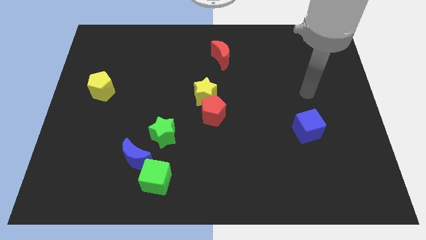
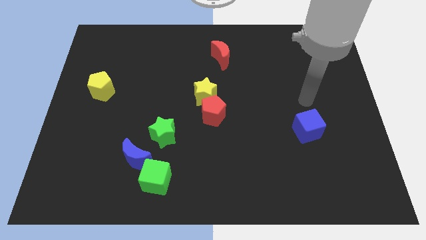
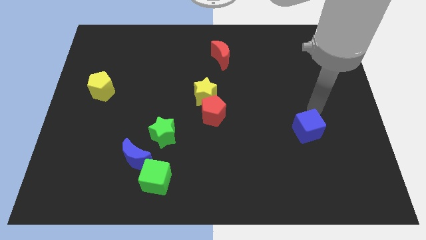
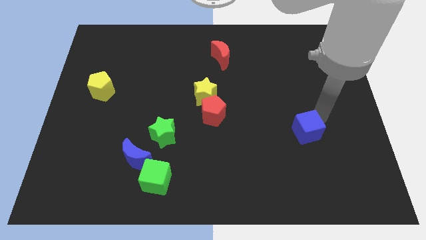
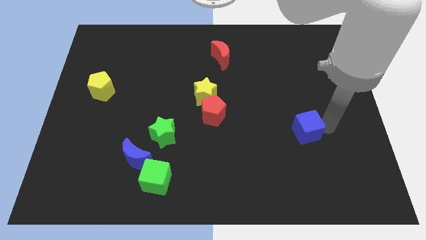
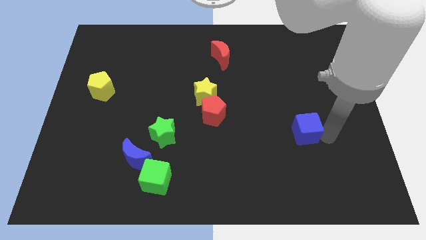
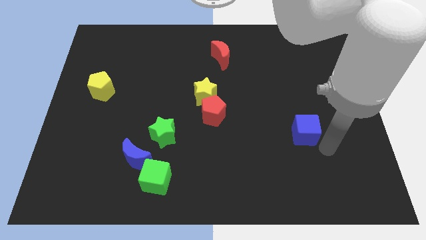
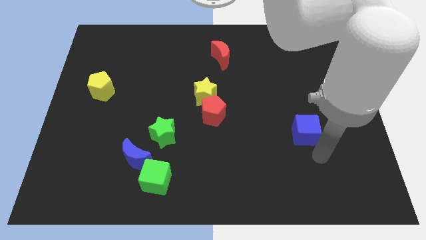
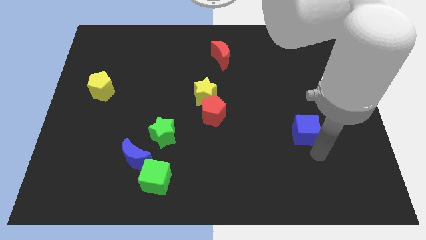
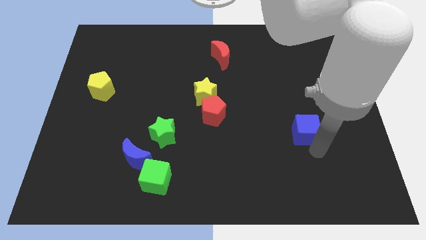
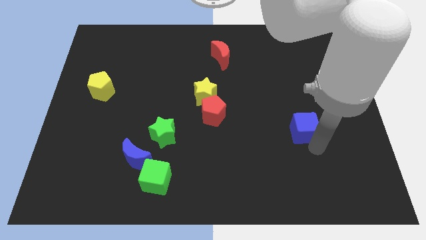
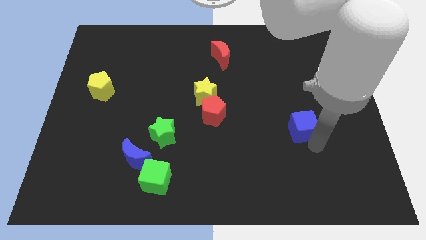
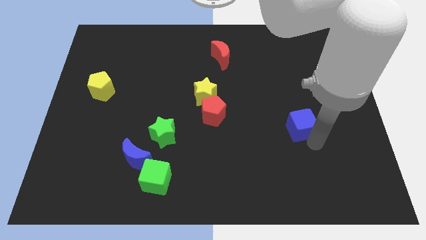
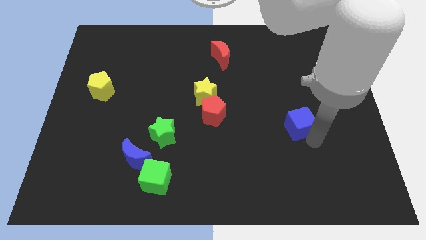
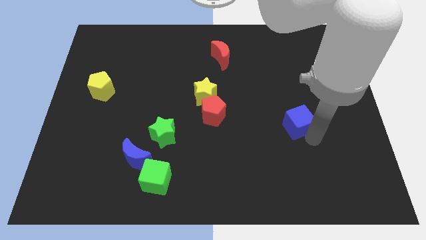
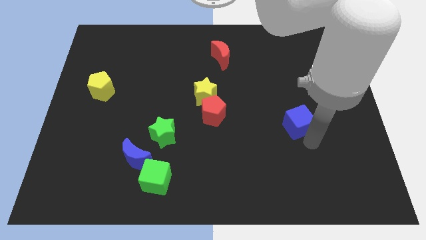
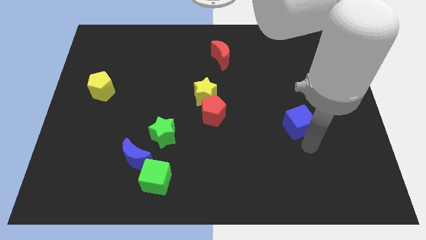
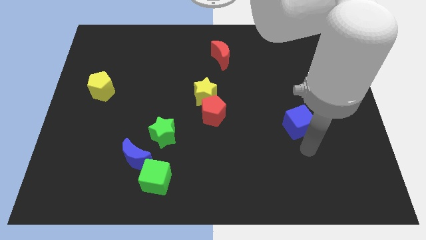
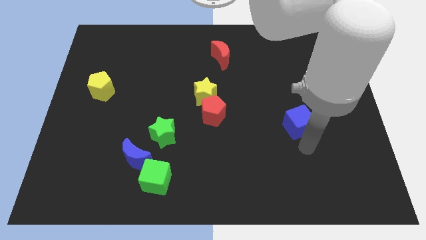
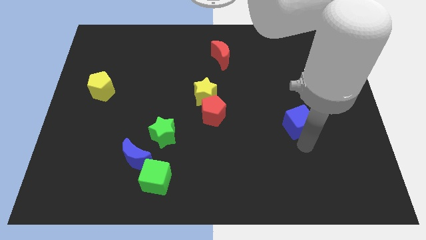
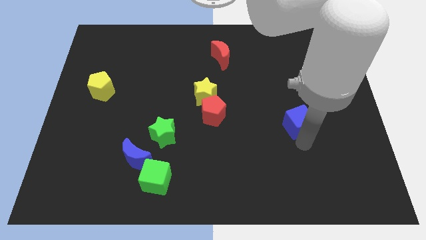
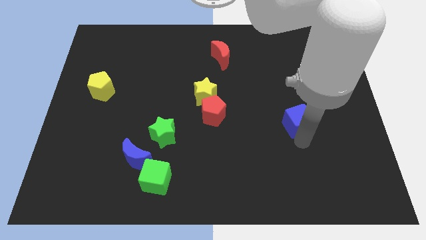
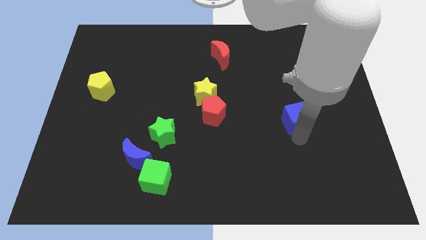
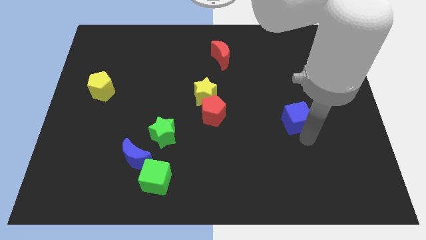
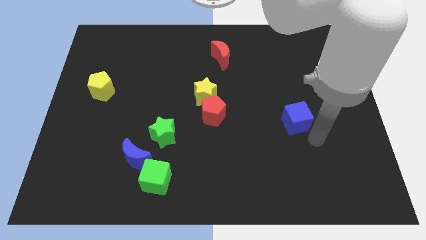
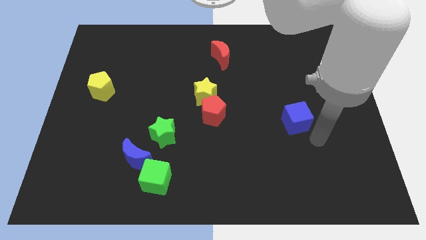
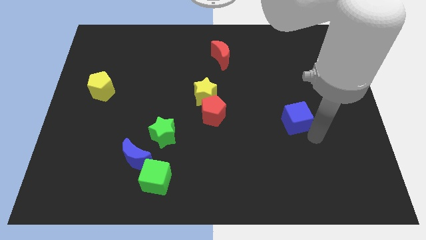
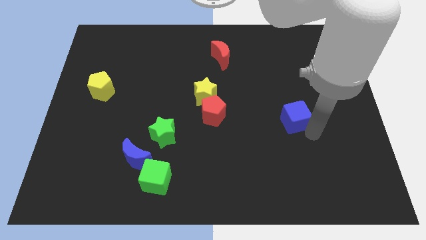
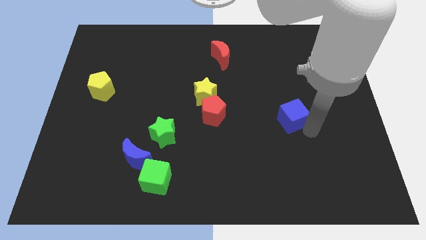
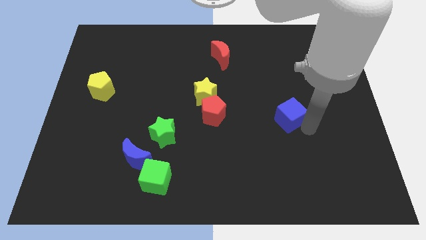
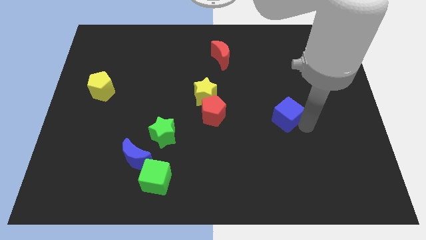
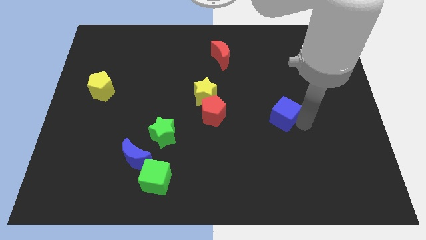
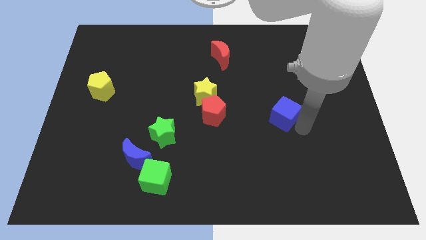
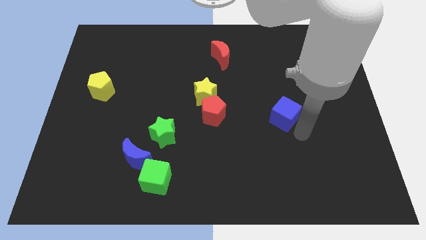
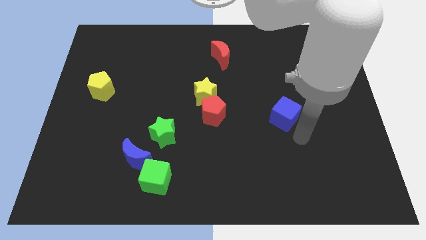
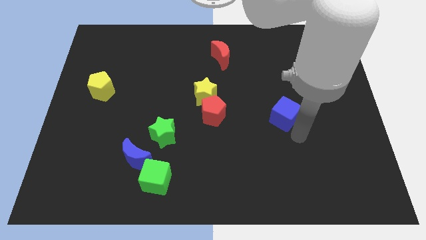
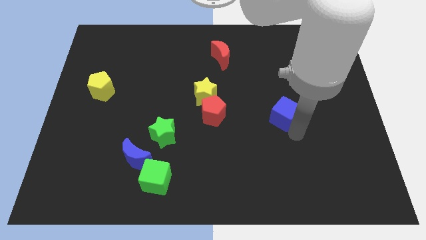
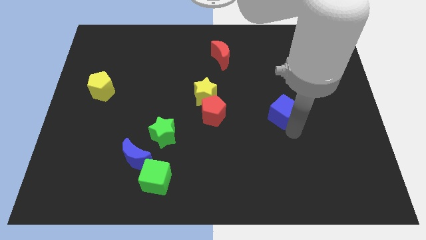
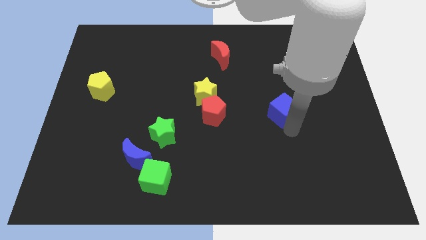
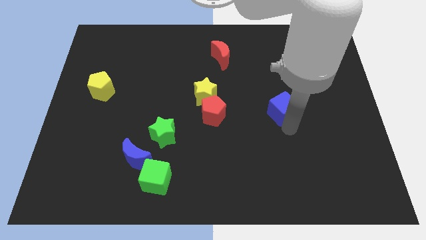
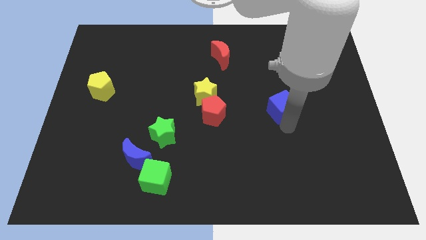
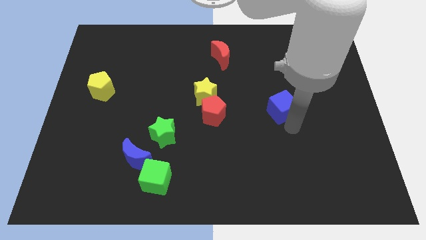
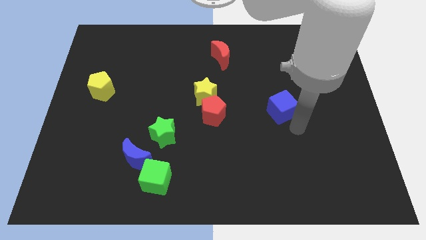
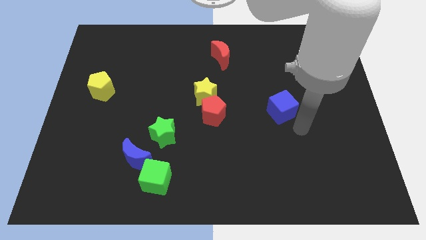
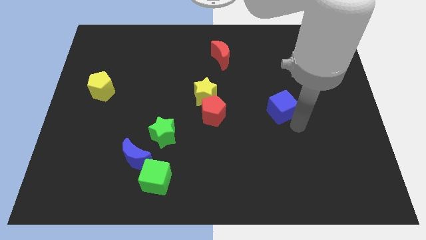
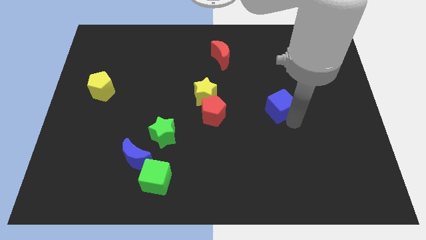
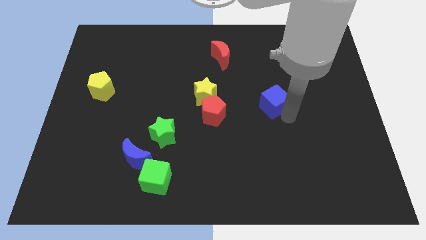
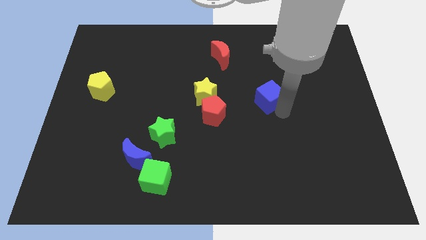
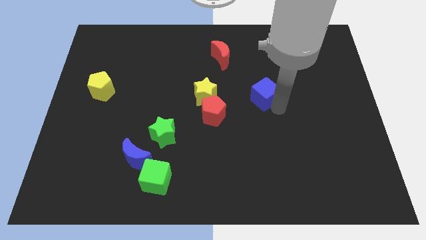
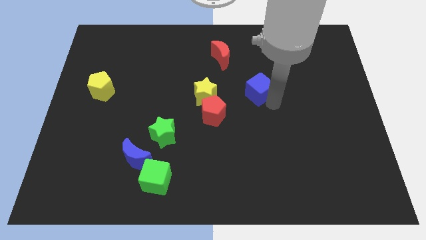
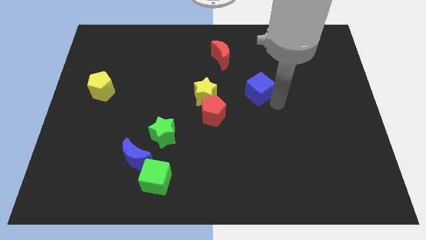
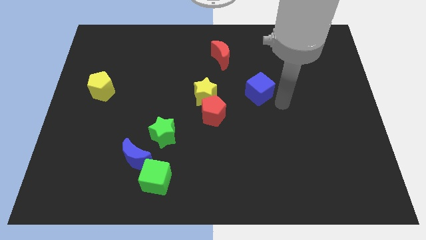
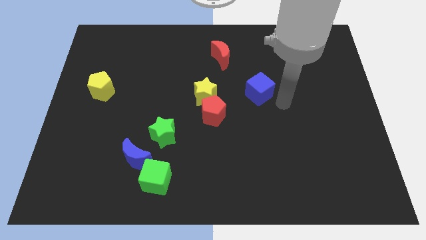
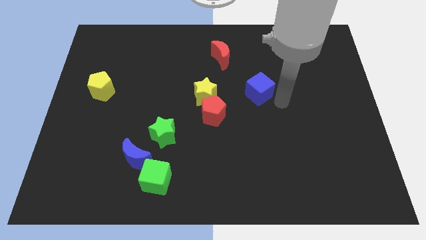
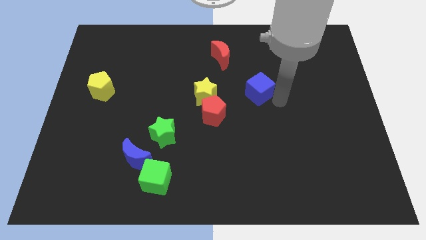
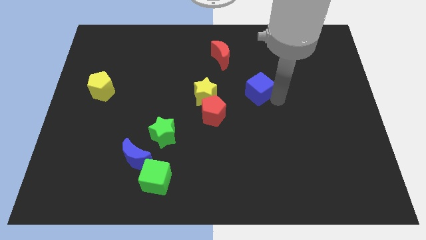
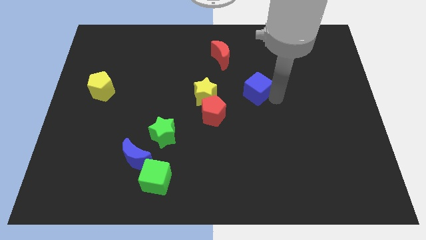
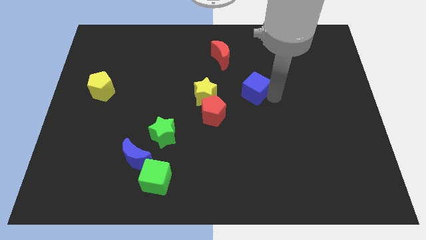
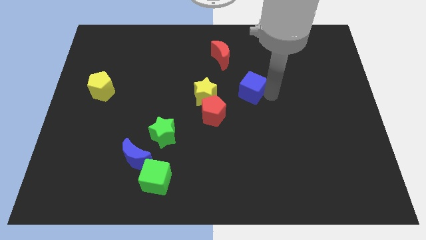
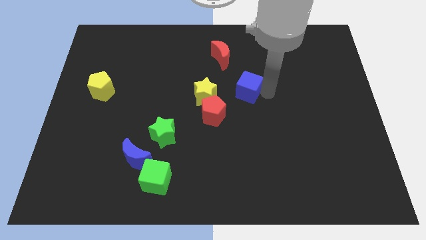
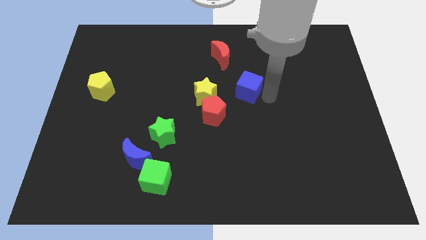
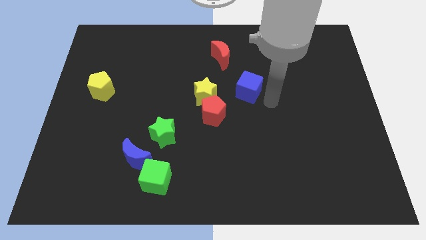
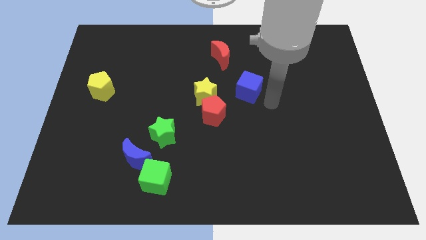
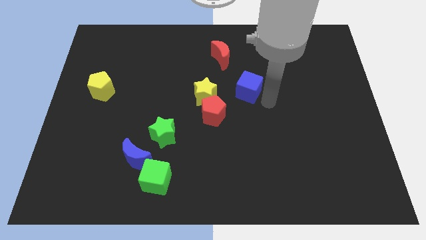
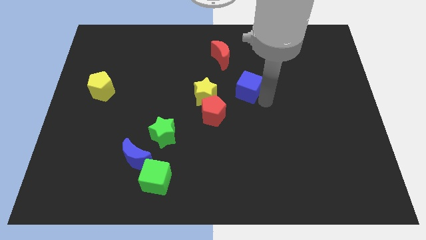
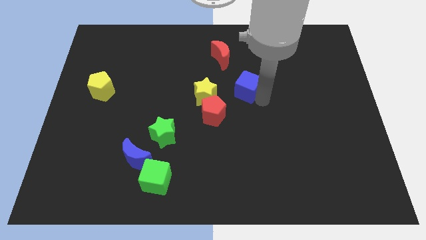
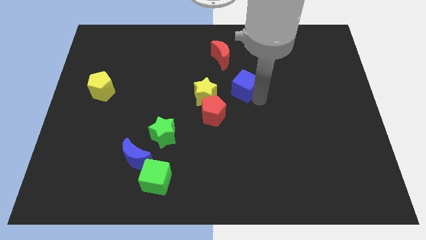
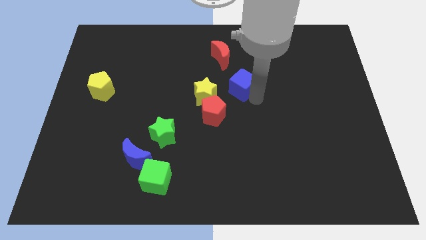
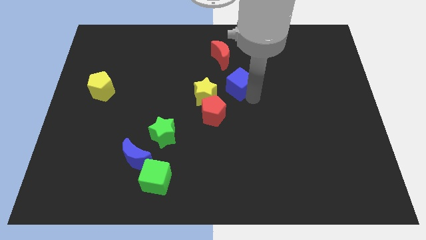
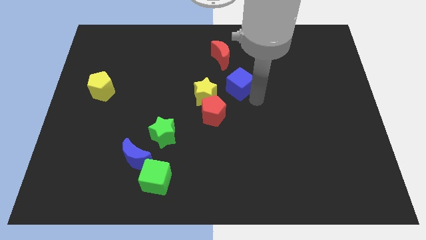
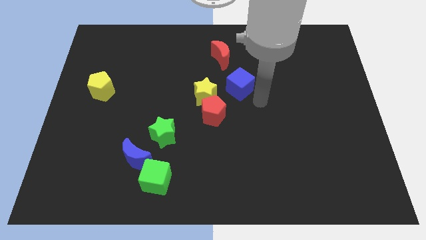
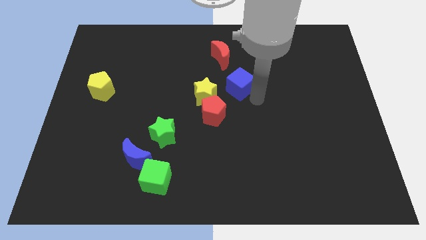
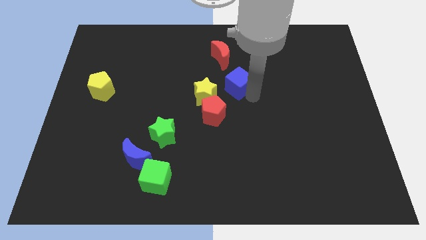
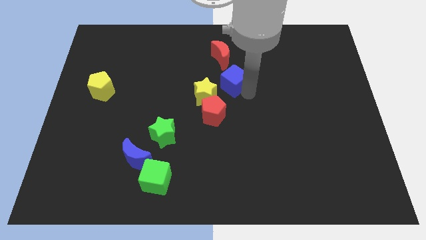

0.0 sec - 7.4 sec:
slide the blue cube up and left diagonally

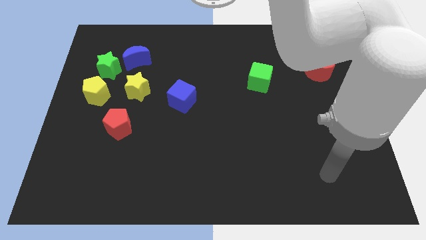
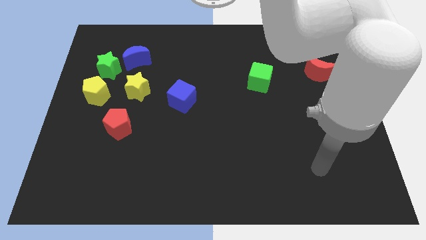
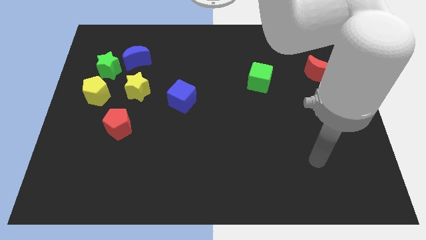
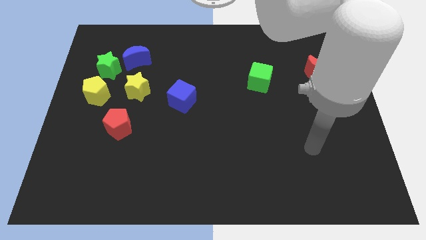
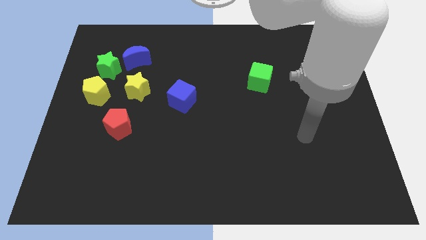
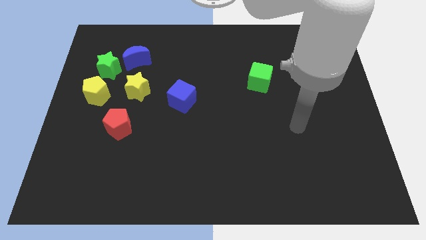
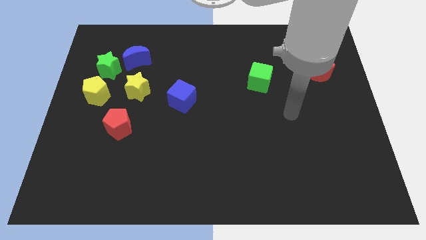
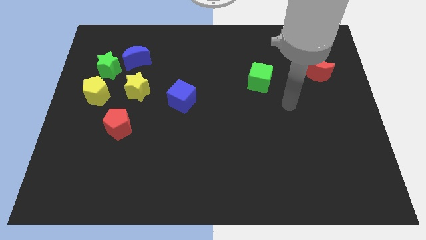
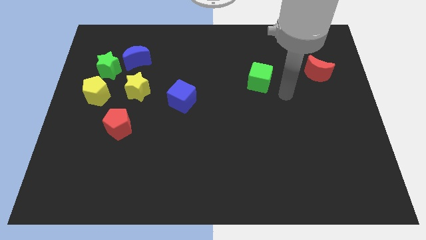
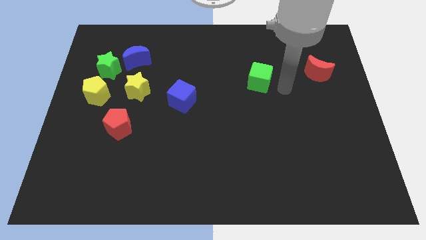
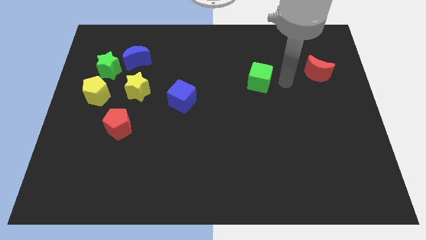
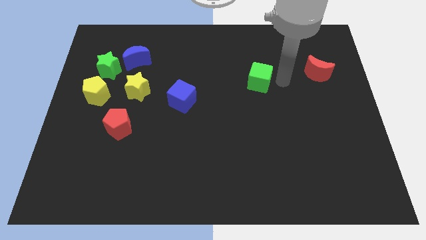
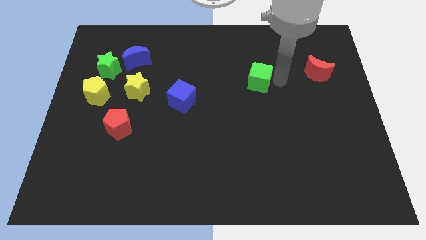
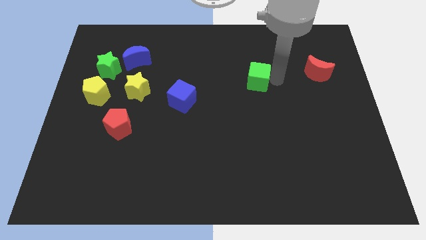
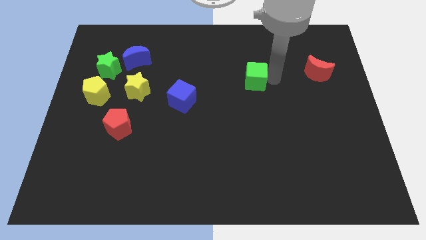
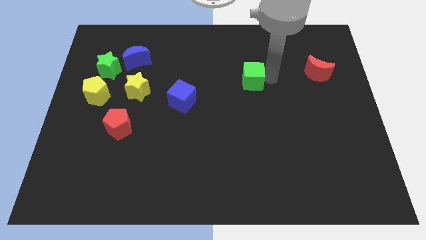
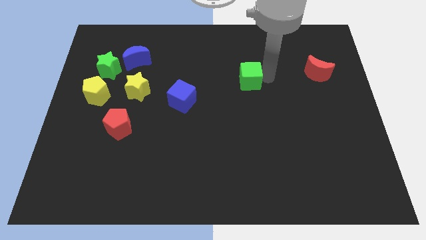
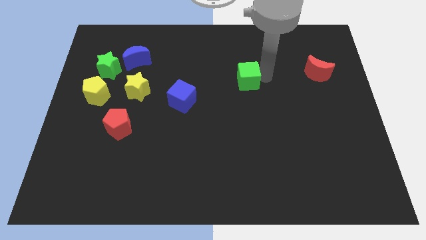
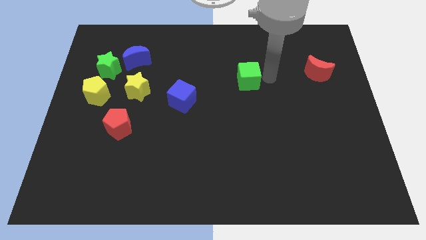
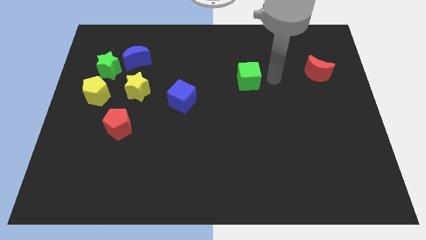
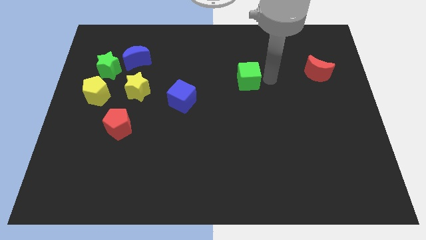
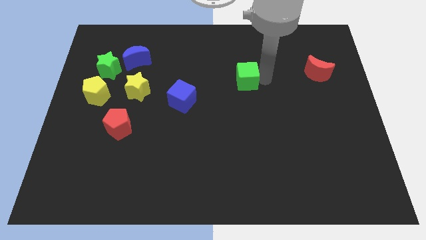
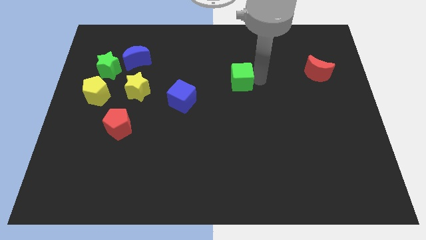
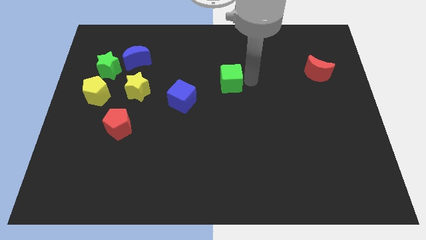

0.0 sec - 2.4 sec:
slightly slide the green cube to the left
